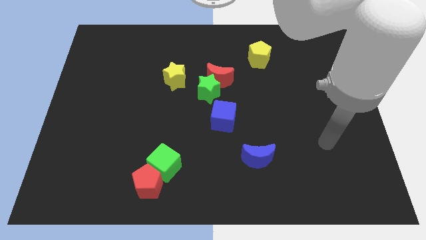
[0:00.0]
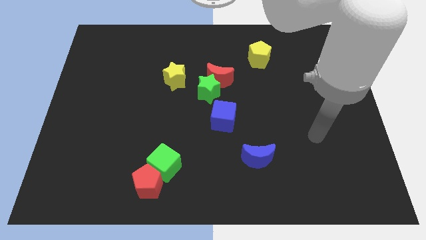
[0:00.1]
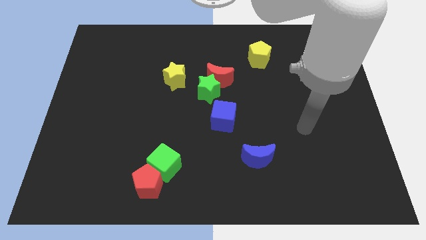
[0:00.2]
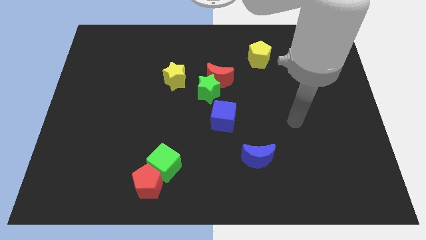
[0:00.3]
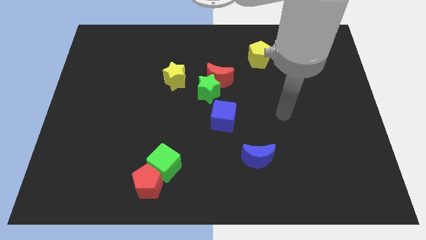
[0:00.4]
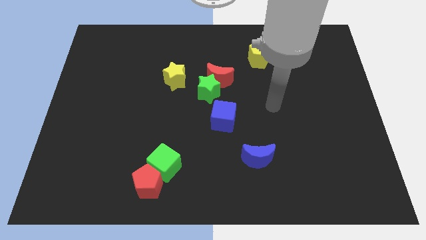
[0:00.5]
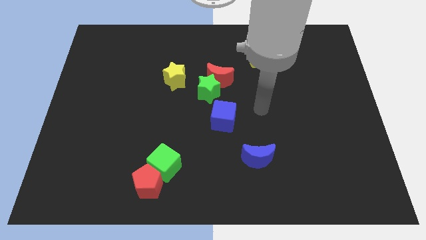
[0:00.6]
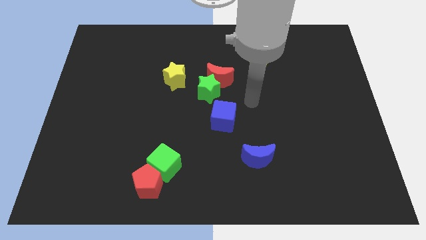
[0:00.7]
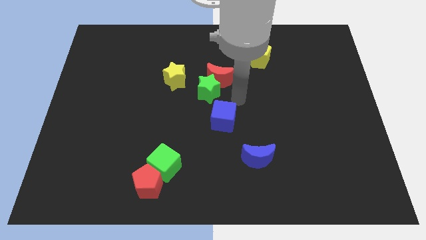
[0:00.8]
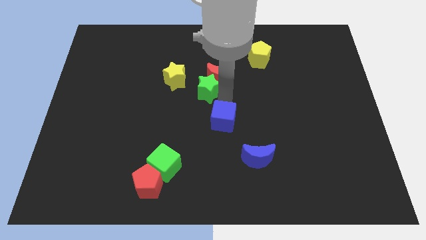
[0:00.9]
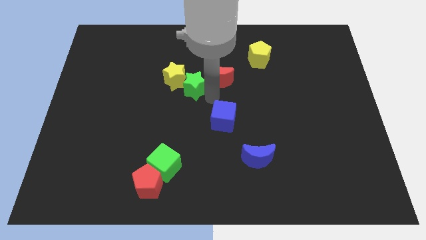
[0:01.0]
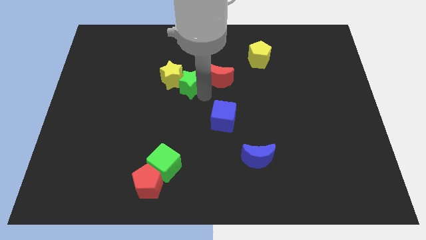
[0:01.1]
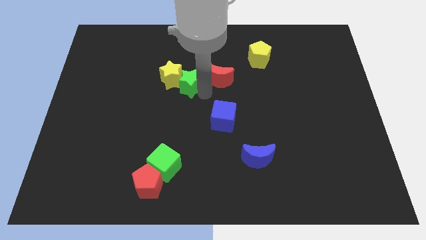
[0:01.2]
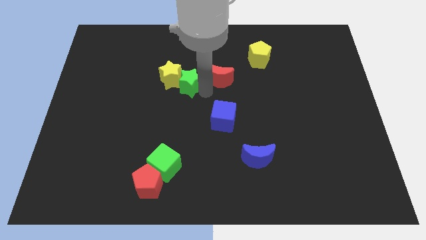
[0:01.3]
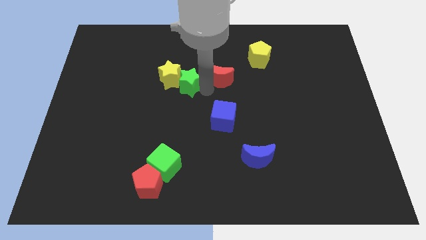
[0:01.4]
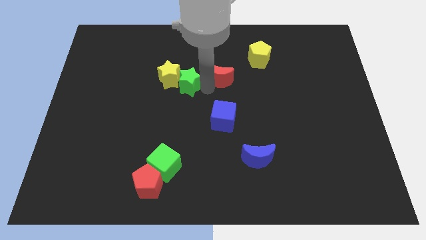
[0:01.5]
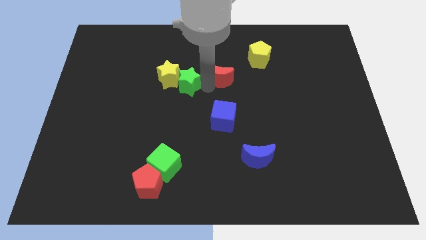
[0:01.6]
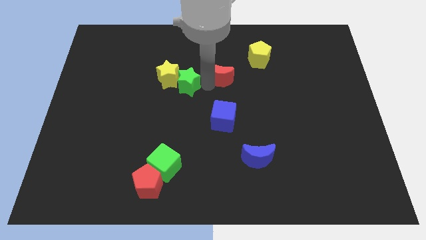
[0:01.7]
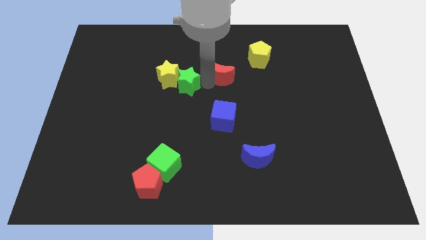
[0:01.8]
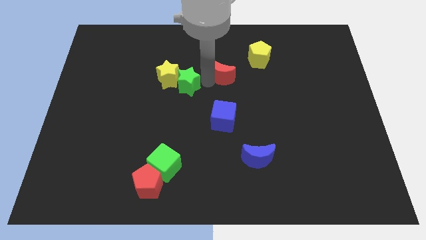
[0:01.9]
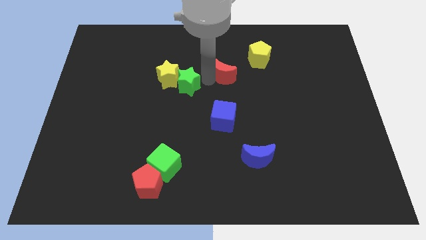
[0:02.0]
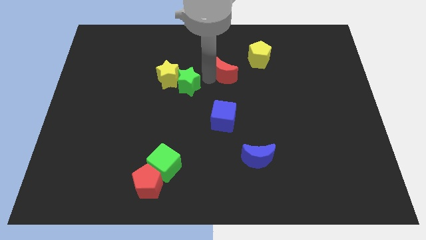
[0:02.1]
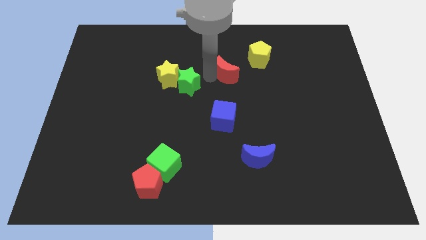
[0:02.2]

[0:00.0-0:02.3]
separate the red moon from the green star

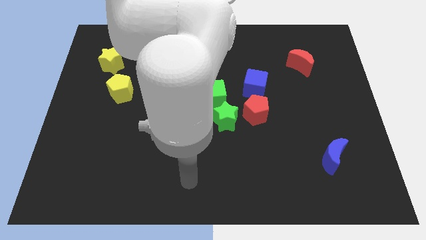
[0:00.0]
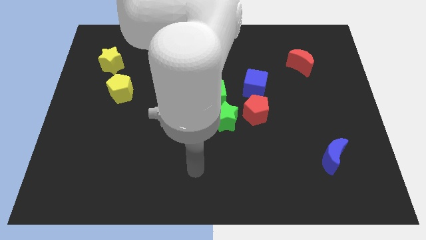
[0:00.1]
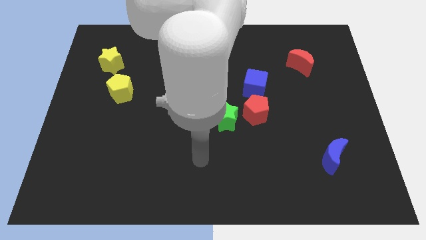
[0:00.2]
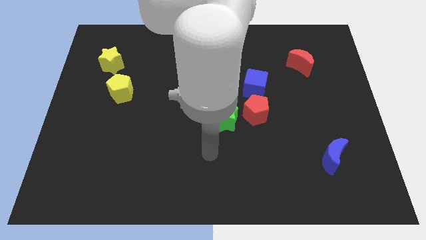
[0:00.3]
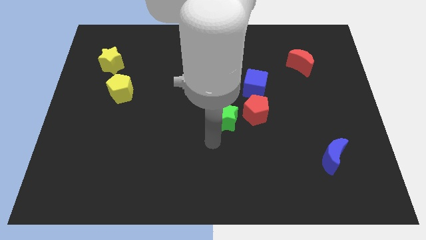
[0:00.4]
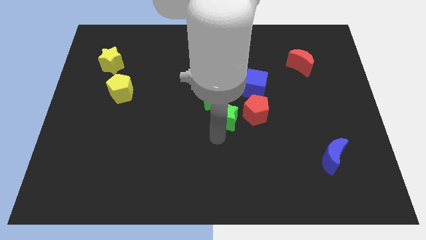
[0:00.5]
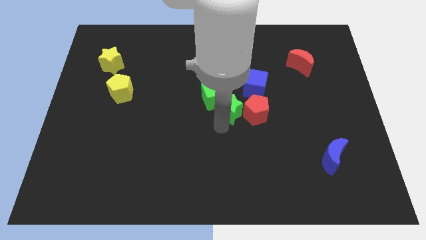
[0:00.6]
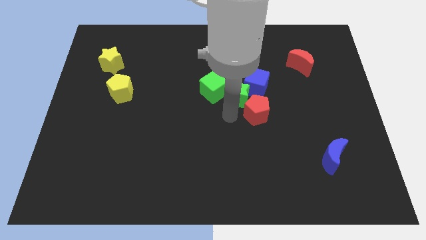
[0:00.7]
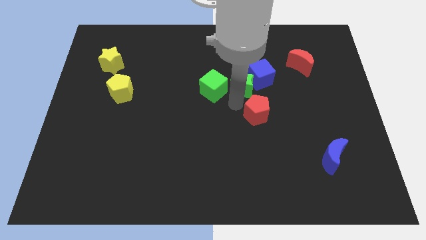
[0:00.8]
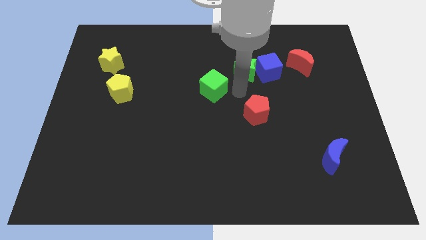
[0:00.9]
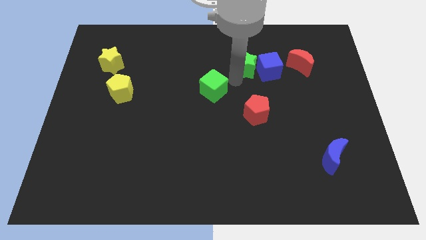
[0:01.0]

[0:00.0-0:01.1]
pull the green cube apart from the green star

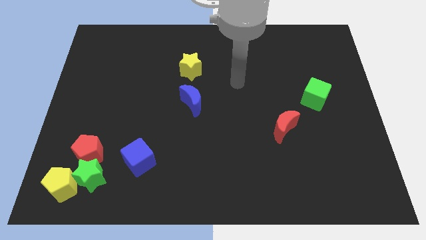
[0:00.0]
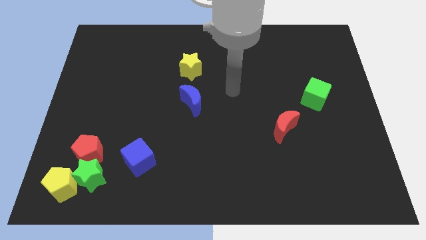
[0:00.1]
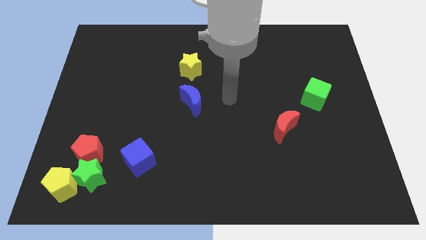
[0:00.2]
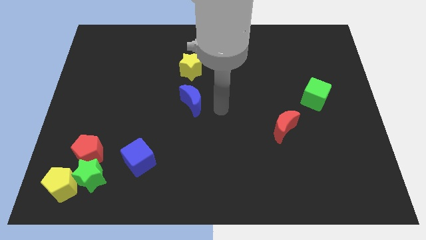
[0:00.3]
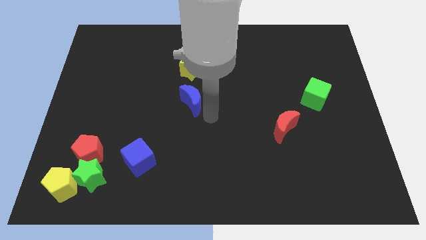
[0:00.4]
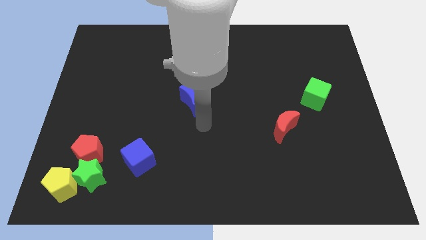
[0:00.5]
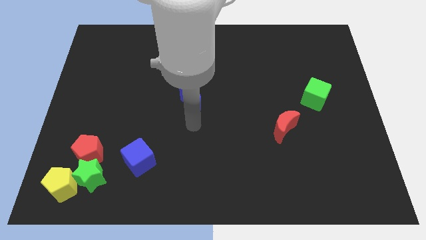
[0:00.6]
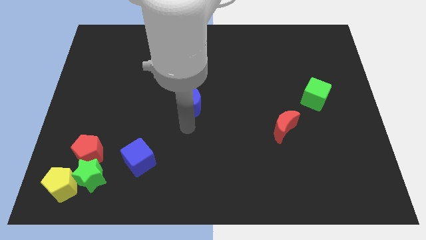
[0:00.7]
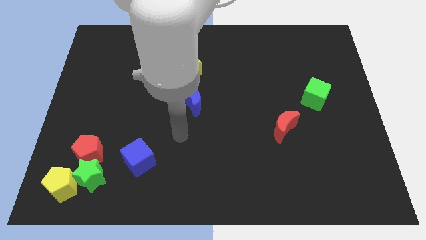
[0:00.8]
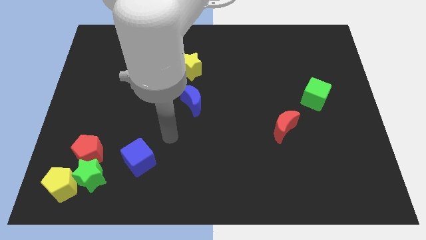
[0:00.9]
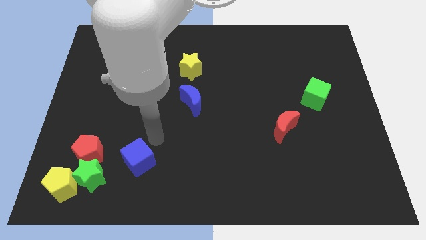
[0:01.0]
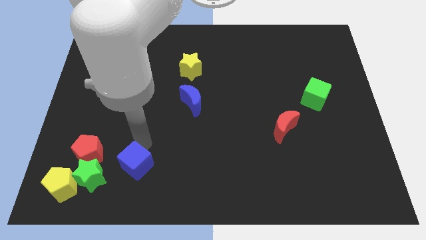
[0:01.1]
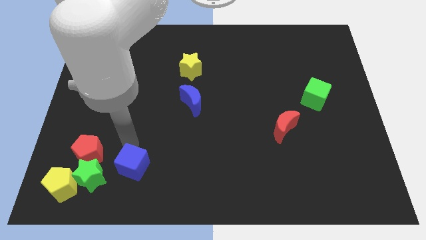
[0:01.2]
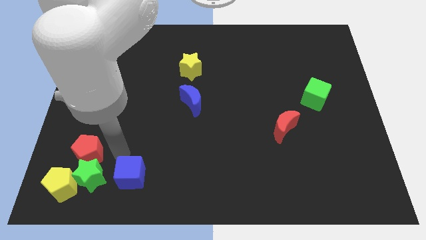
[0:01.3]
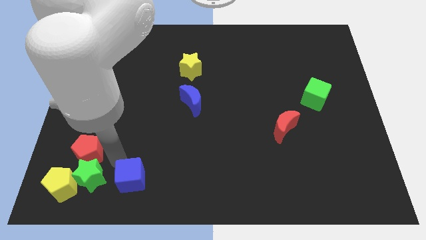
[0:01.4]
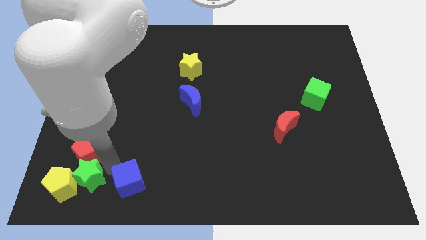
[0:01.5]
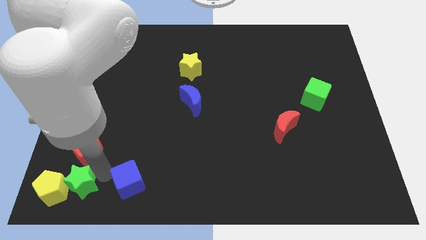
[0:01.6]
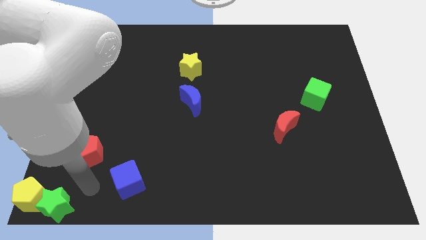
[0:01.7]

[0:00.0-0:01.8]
move the red pentagon away from the green star and yellow pentagon

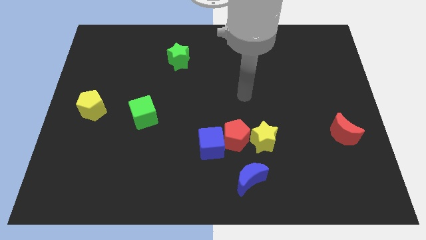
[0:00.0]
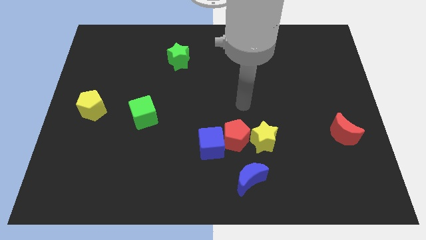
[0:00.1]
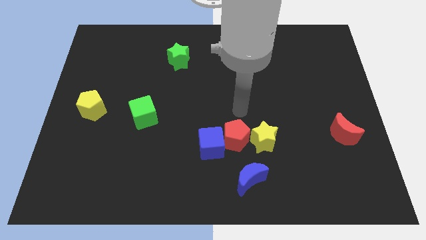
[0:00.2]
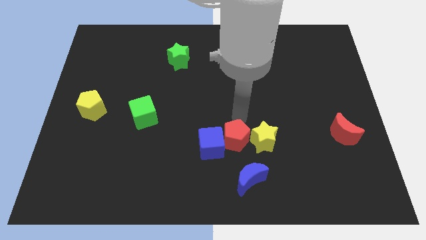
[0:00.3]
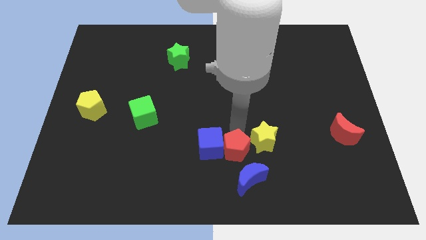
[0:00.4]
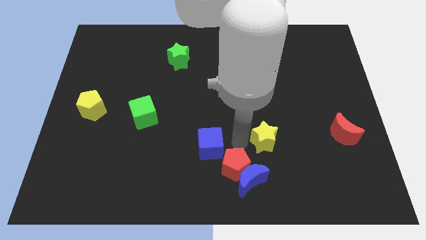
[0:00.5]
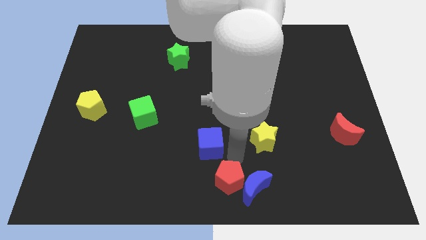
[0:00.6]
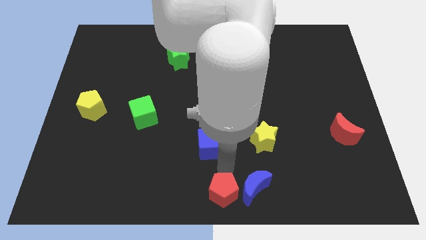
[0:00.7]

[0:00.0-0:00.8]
move the blue cube away from the red pentagon

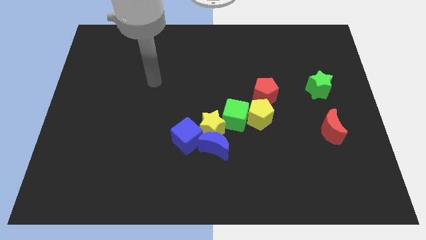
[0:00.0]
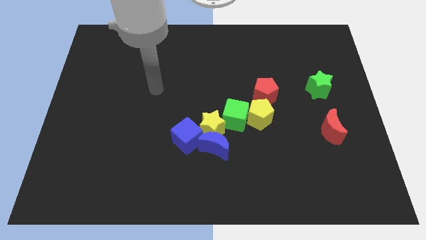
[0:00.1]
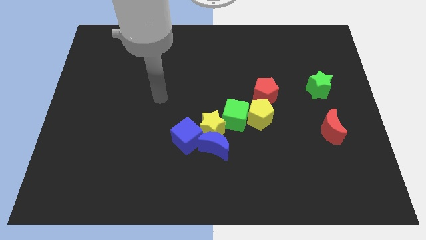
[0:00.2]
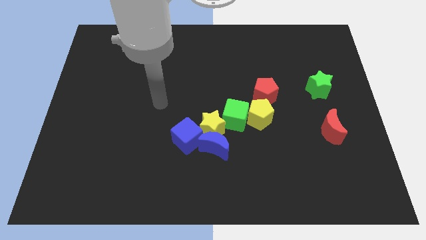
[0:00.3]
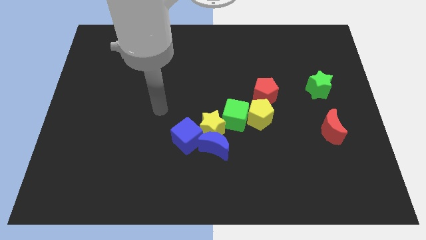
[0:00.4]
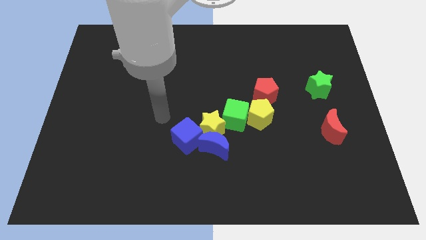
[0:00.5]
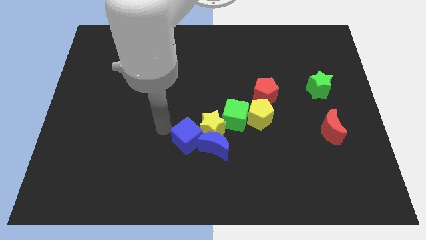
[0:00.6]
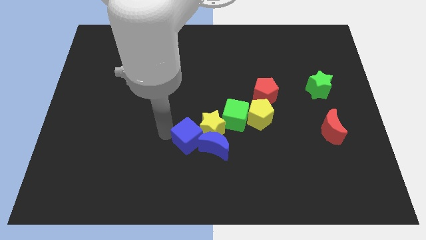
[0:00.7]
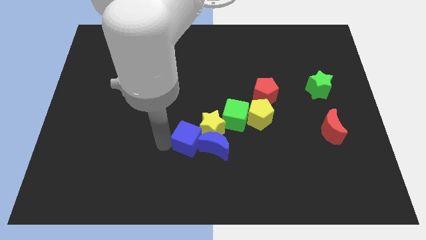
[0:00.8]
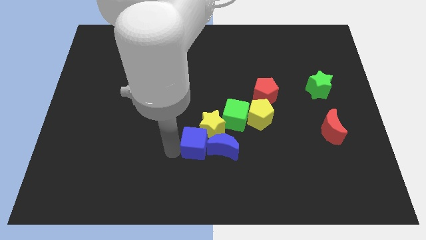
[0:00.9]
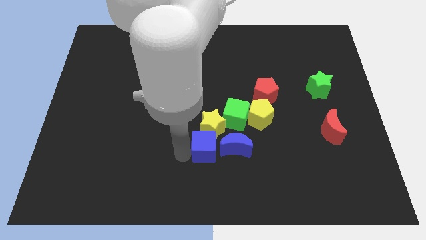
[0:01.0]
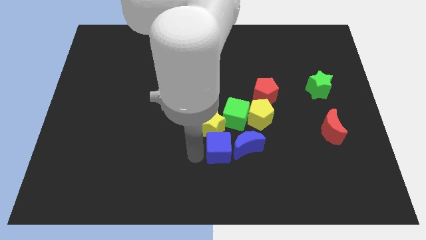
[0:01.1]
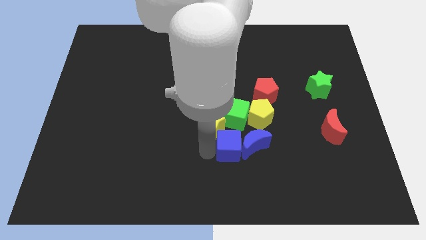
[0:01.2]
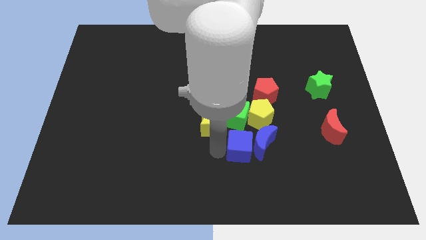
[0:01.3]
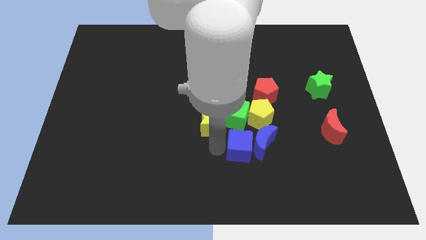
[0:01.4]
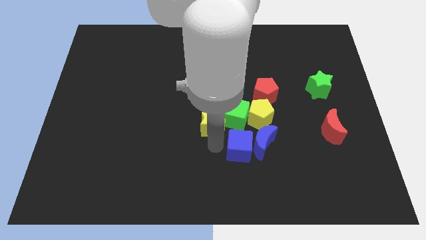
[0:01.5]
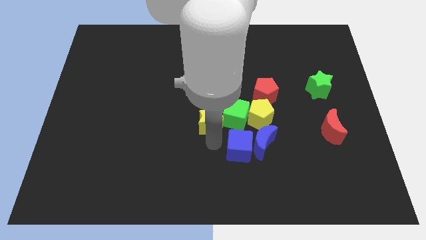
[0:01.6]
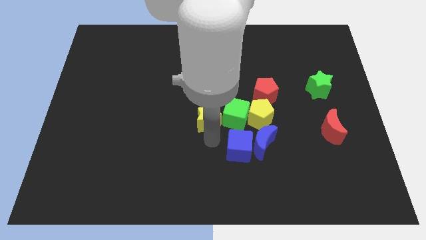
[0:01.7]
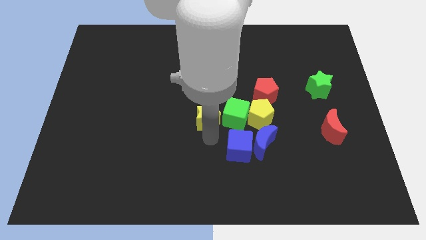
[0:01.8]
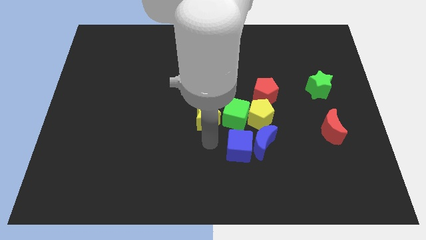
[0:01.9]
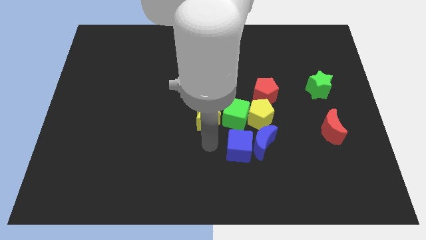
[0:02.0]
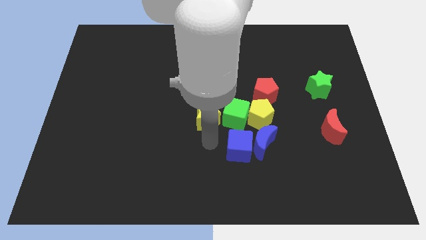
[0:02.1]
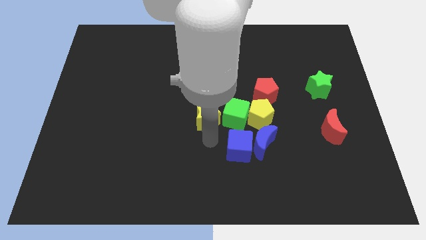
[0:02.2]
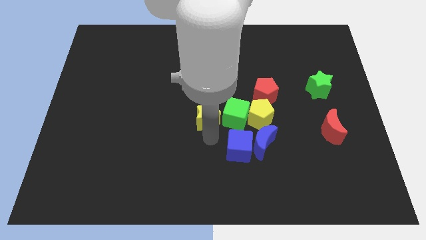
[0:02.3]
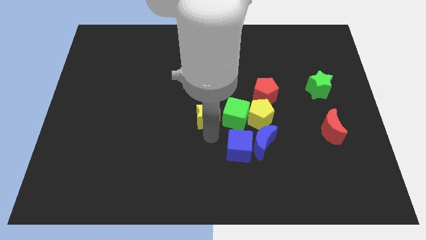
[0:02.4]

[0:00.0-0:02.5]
move the yellow star away from the clump

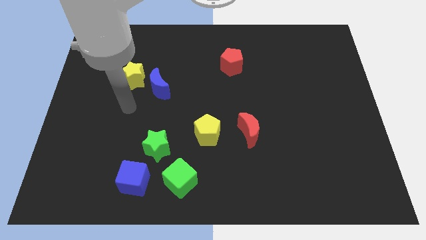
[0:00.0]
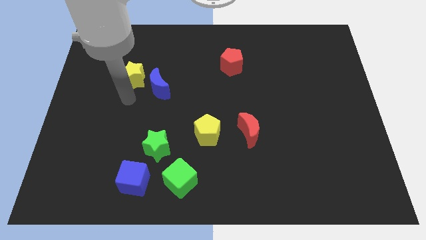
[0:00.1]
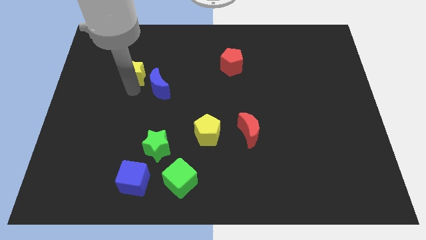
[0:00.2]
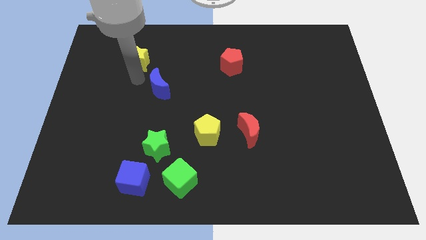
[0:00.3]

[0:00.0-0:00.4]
separate the blue moon from the yellow star

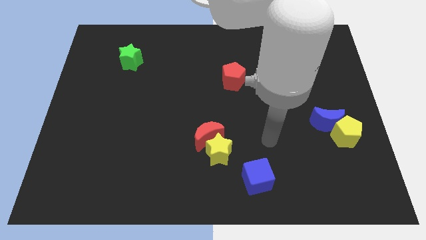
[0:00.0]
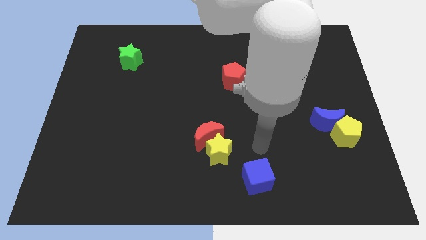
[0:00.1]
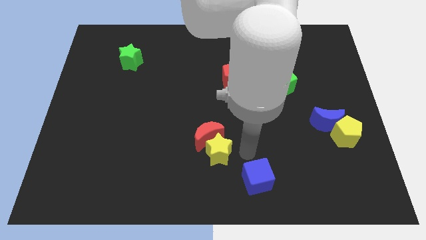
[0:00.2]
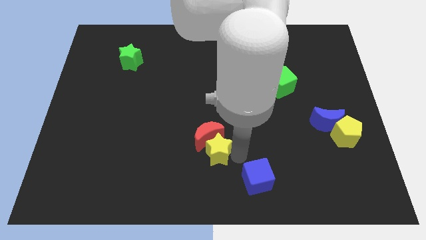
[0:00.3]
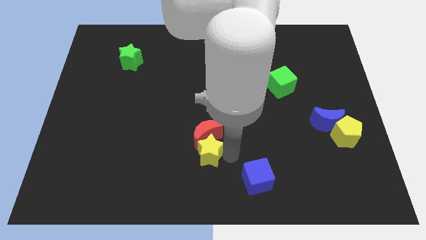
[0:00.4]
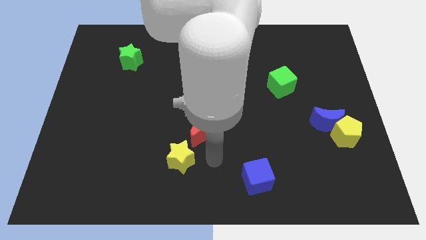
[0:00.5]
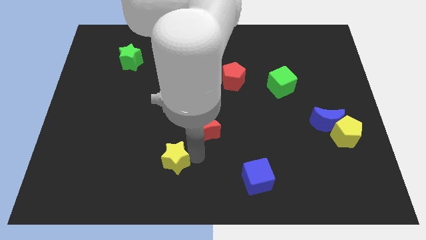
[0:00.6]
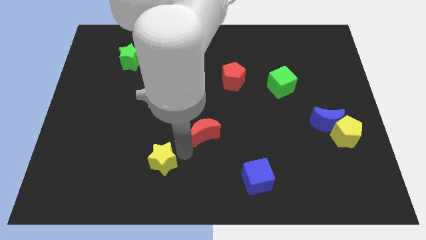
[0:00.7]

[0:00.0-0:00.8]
separate the red moon from the yellow star
